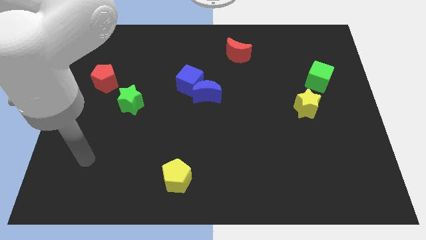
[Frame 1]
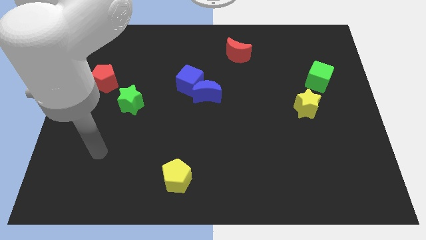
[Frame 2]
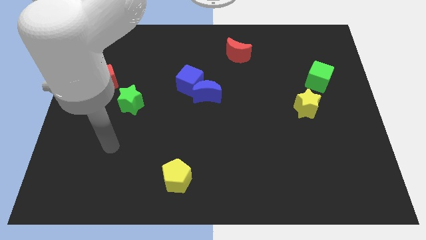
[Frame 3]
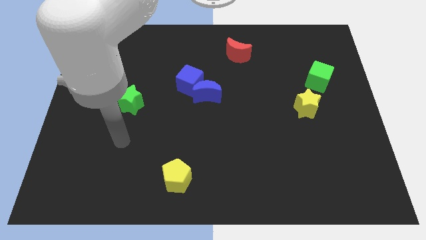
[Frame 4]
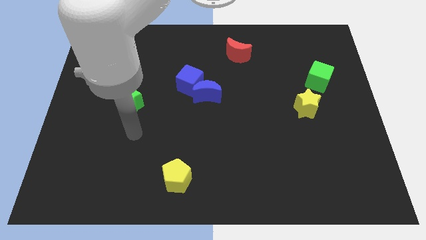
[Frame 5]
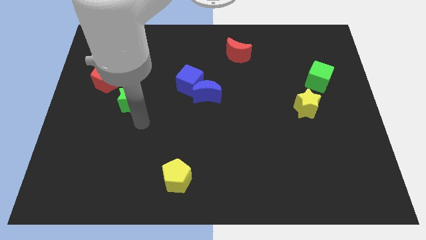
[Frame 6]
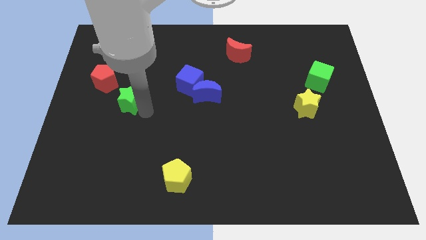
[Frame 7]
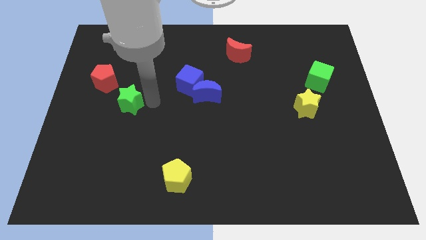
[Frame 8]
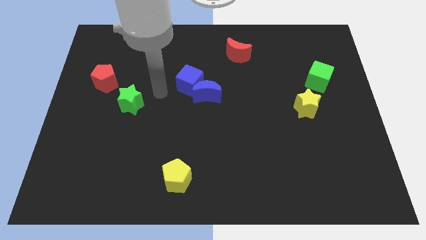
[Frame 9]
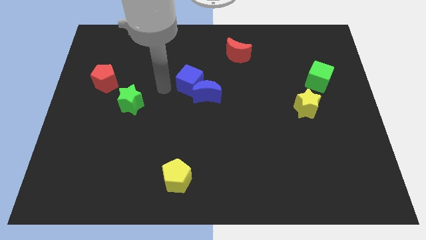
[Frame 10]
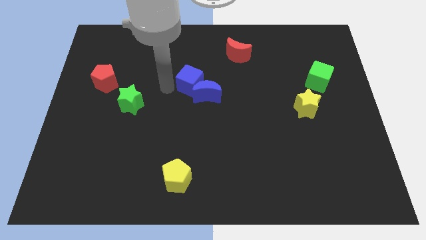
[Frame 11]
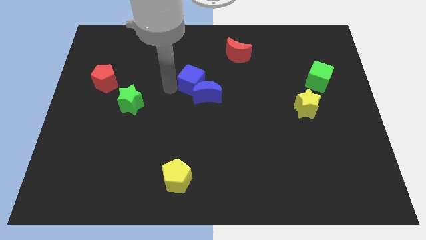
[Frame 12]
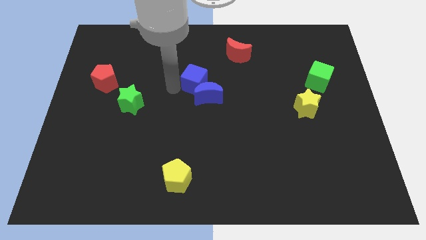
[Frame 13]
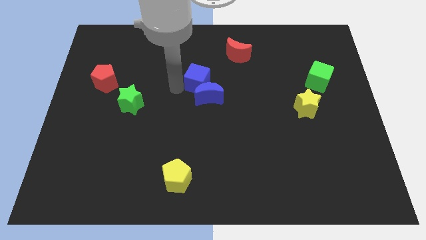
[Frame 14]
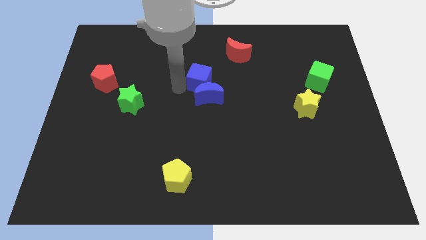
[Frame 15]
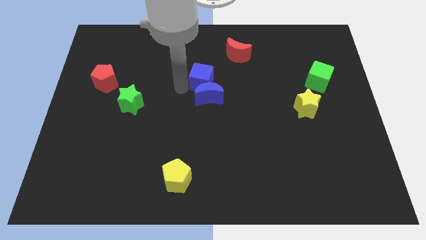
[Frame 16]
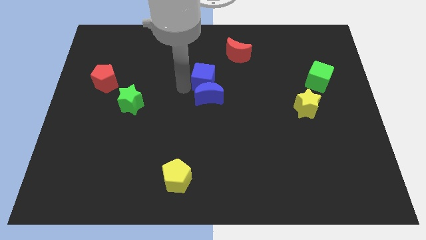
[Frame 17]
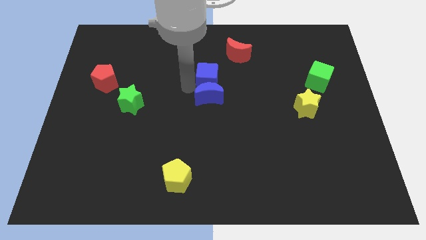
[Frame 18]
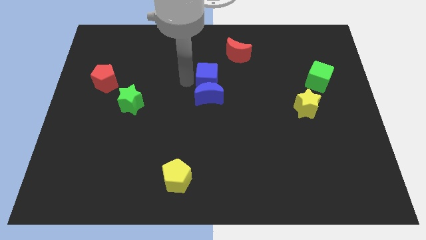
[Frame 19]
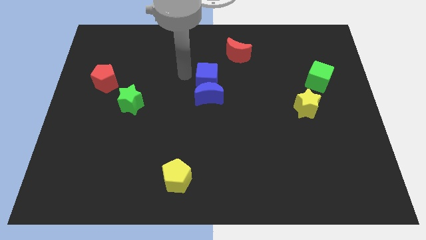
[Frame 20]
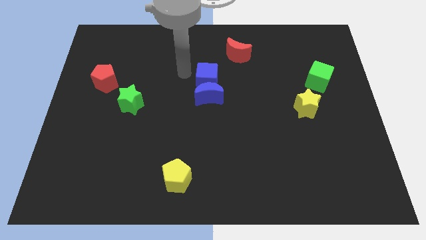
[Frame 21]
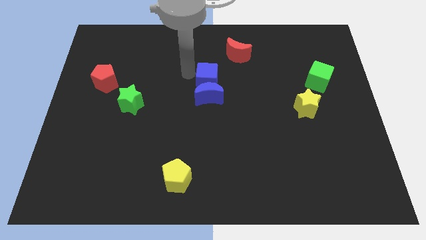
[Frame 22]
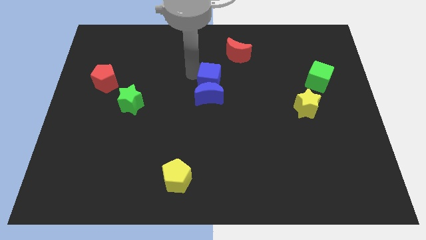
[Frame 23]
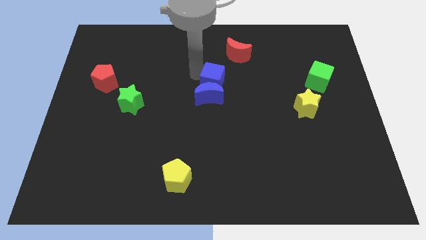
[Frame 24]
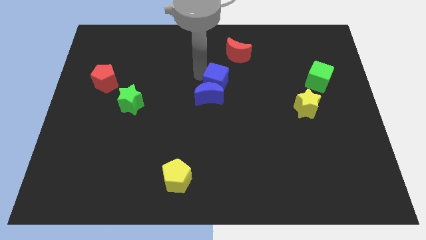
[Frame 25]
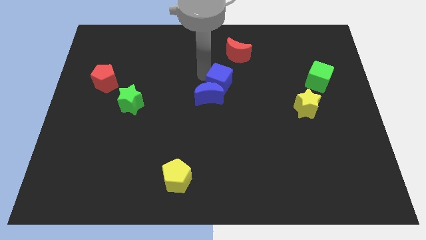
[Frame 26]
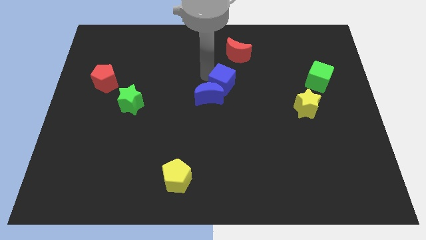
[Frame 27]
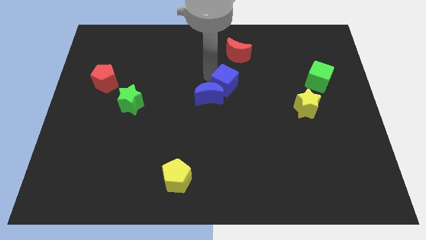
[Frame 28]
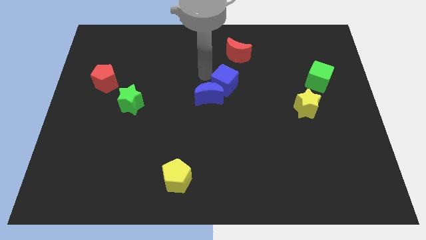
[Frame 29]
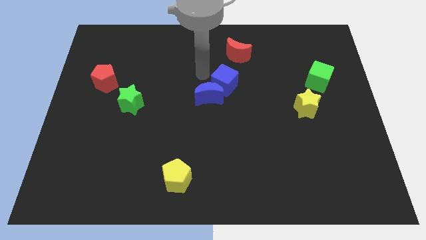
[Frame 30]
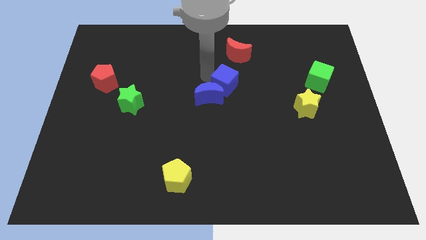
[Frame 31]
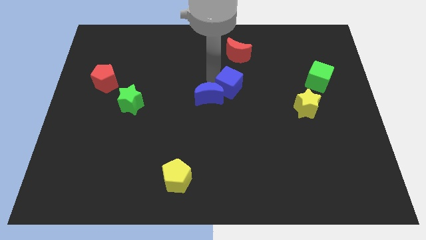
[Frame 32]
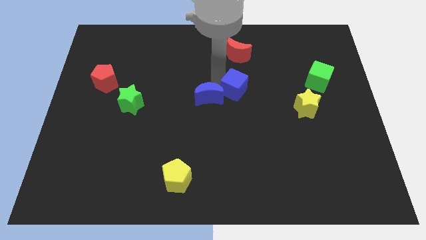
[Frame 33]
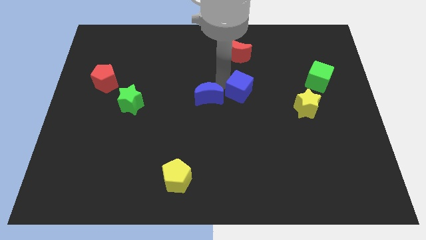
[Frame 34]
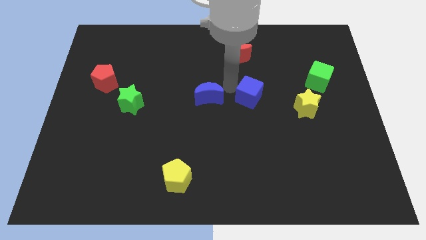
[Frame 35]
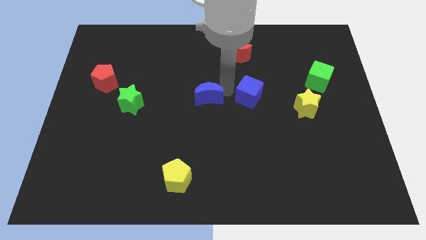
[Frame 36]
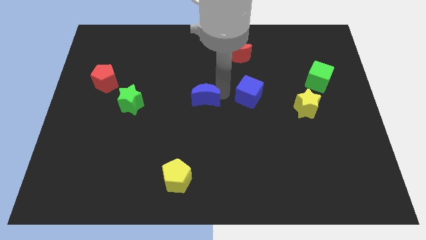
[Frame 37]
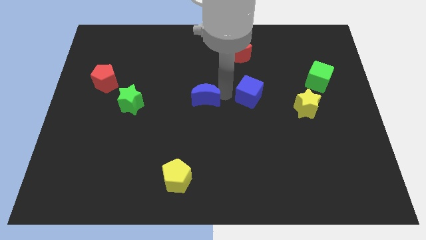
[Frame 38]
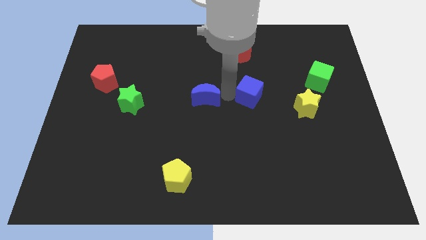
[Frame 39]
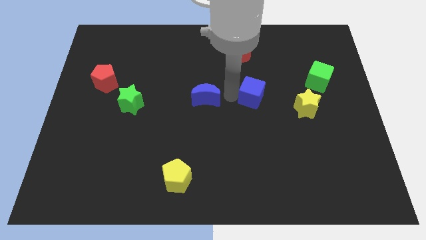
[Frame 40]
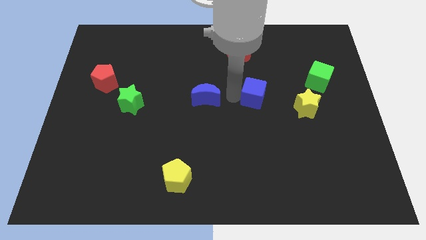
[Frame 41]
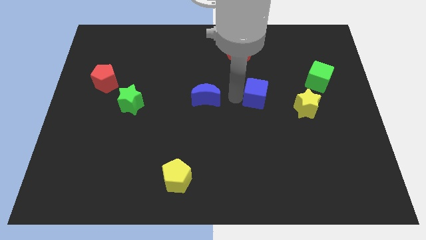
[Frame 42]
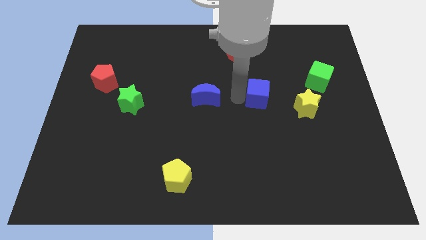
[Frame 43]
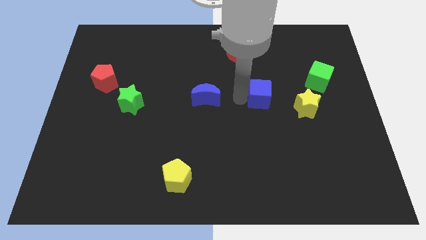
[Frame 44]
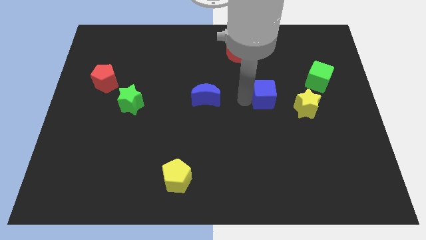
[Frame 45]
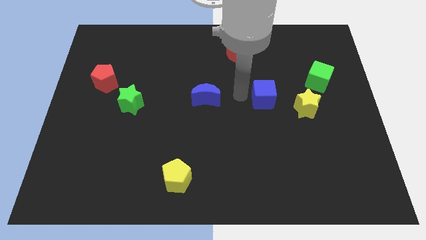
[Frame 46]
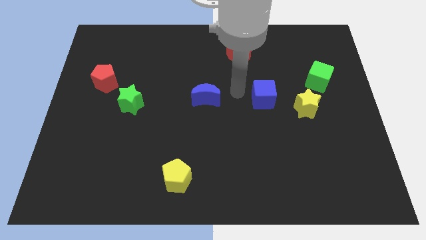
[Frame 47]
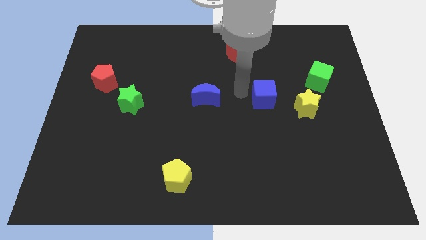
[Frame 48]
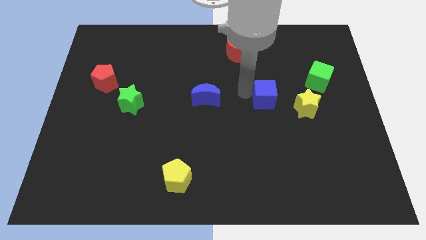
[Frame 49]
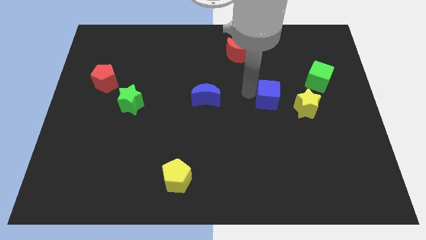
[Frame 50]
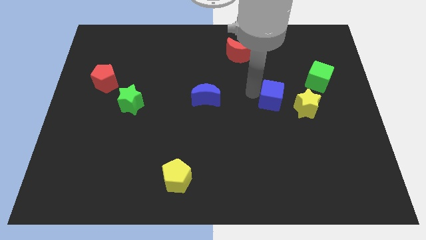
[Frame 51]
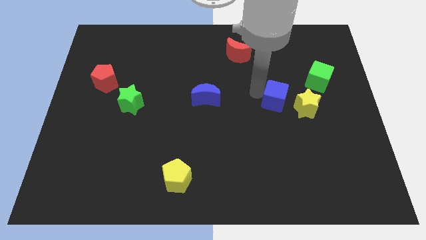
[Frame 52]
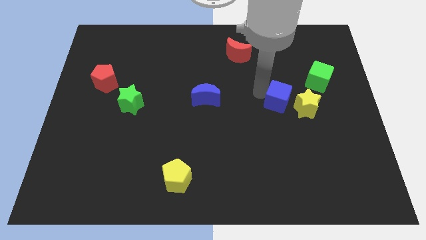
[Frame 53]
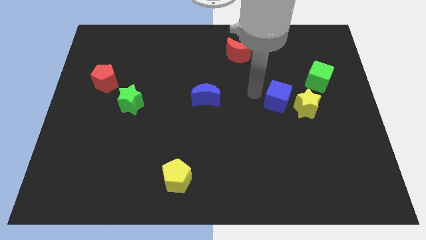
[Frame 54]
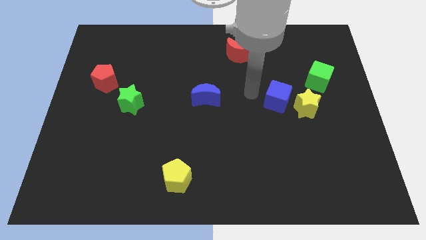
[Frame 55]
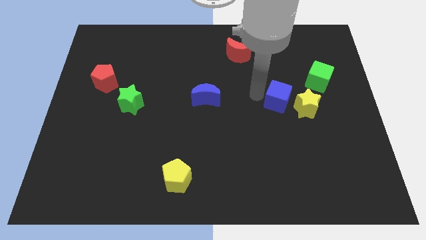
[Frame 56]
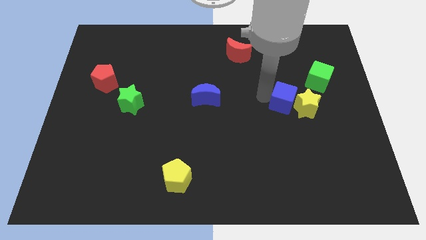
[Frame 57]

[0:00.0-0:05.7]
put the blue cube close to the yellow star

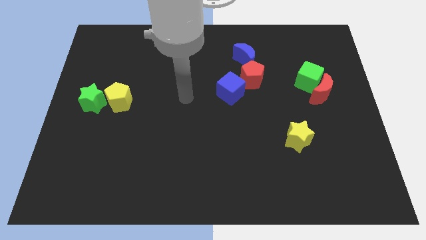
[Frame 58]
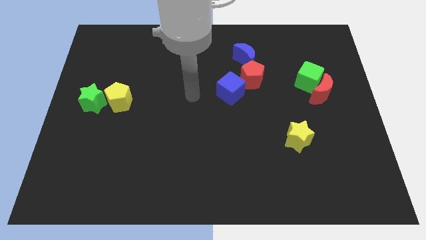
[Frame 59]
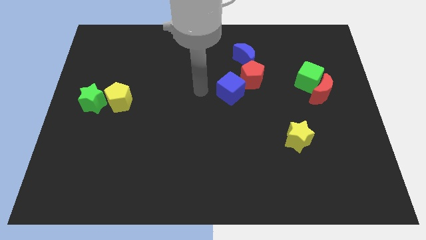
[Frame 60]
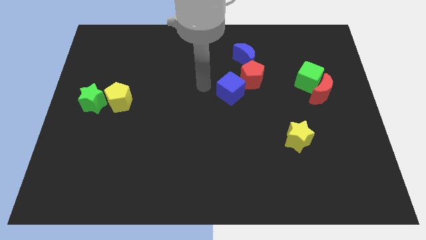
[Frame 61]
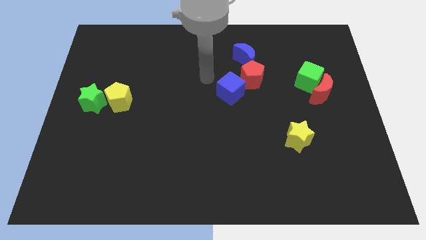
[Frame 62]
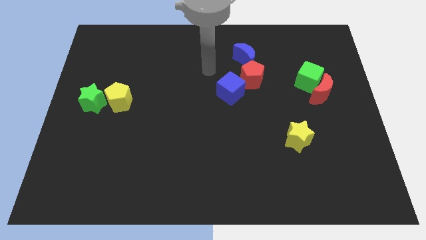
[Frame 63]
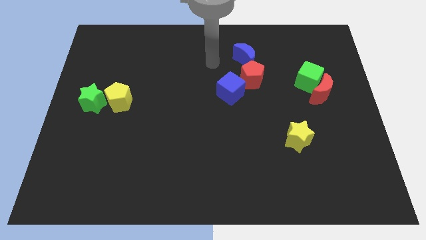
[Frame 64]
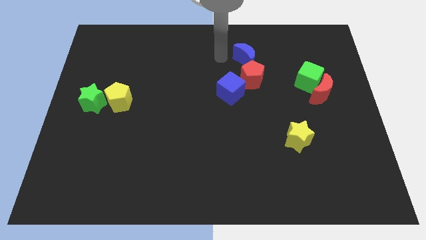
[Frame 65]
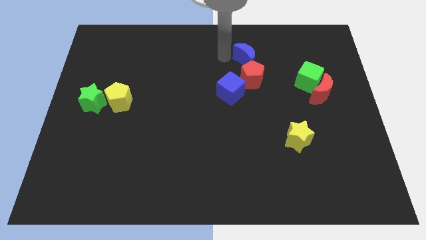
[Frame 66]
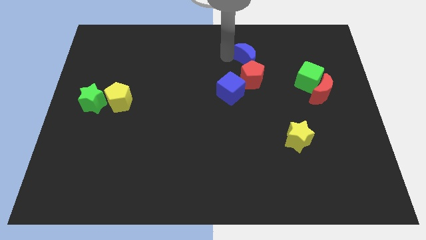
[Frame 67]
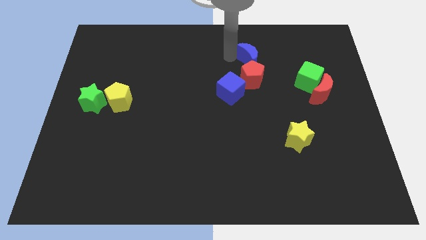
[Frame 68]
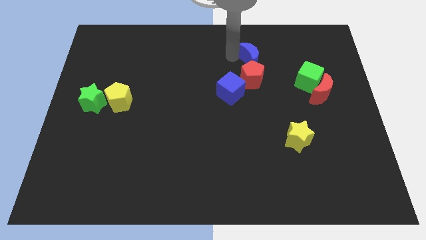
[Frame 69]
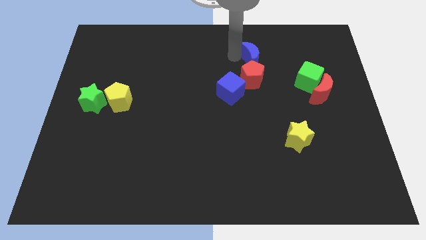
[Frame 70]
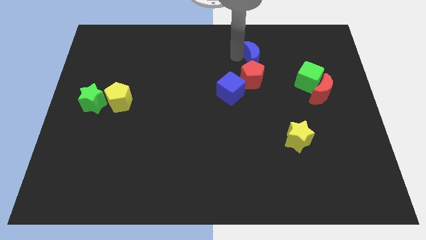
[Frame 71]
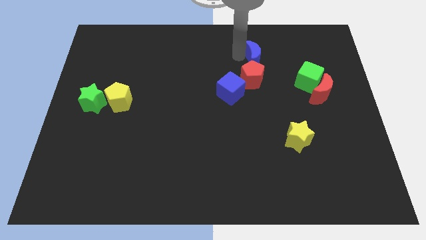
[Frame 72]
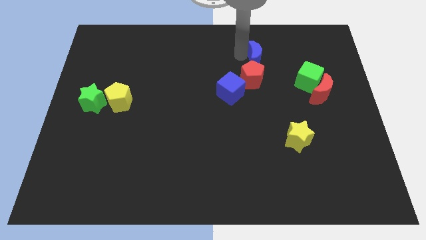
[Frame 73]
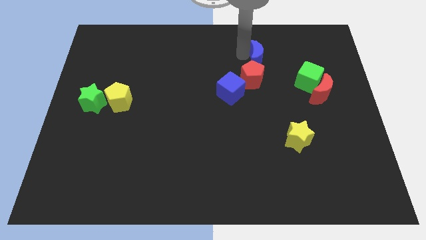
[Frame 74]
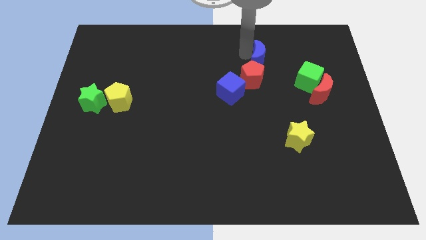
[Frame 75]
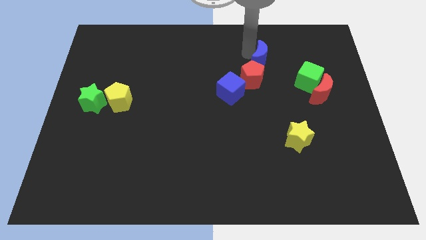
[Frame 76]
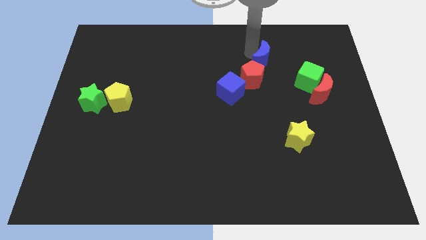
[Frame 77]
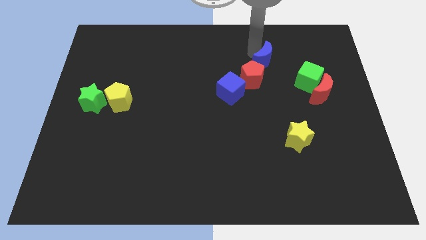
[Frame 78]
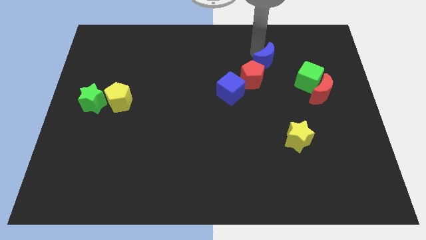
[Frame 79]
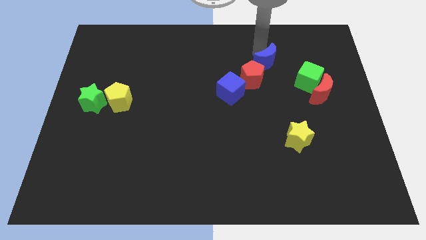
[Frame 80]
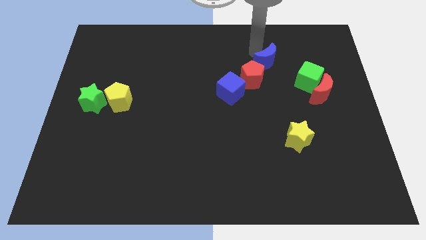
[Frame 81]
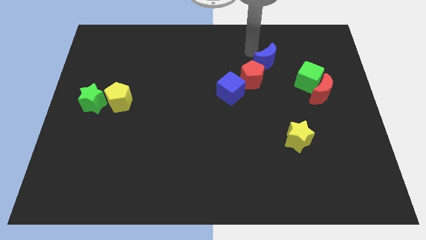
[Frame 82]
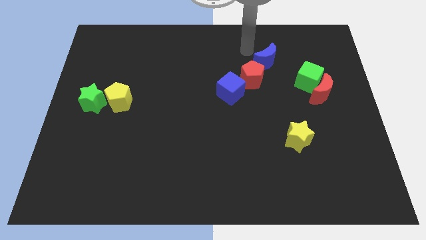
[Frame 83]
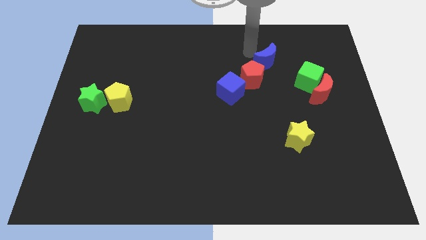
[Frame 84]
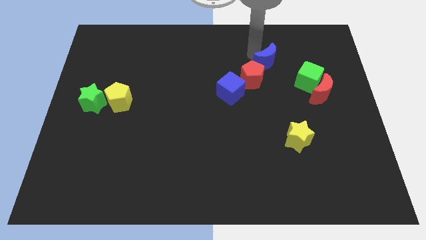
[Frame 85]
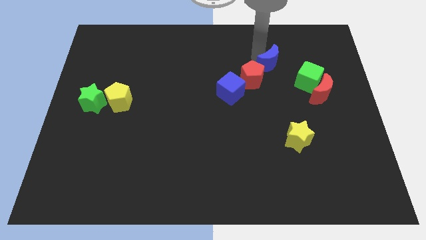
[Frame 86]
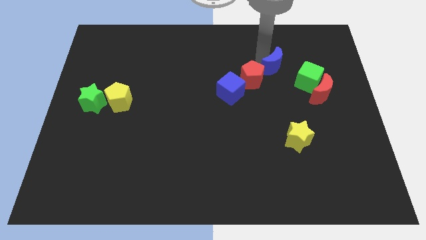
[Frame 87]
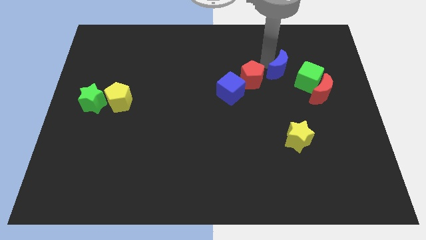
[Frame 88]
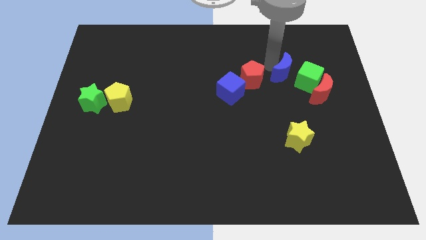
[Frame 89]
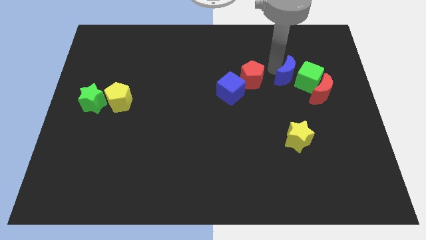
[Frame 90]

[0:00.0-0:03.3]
put the blue moon close to the green cube
